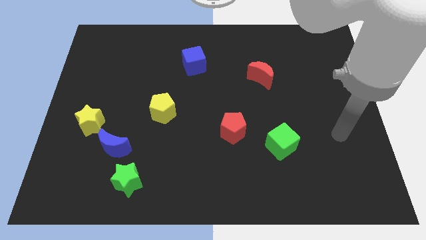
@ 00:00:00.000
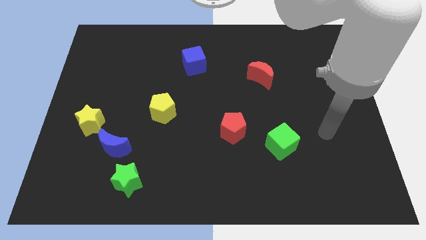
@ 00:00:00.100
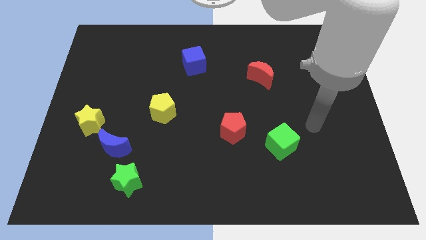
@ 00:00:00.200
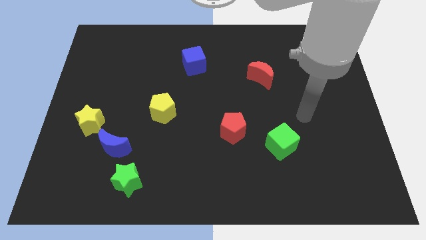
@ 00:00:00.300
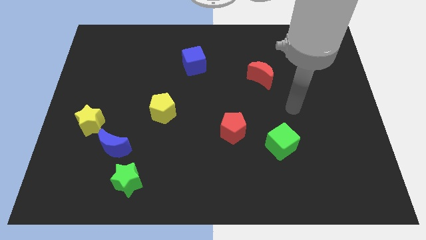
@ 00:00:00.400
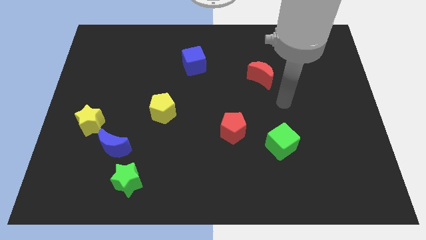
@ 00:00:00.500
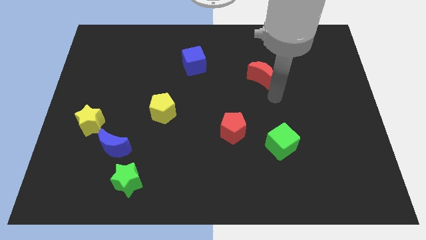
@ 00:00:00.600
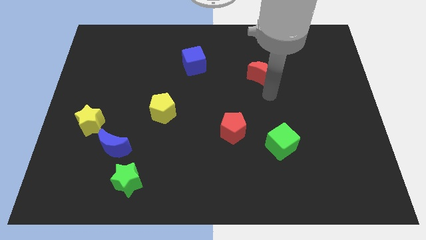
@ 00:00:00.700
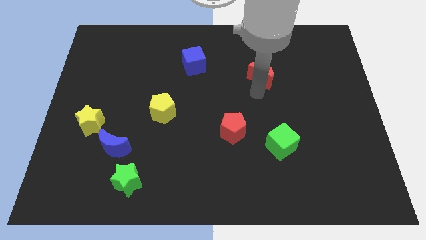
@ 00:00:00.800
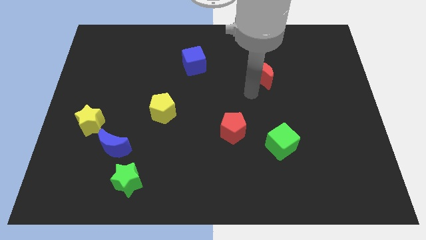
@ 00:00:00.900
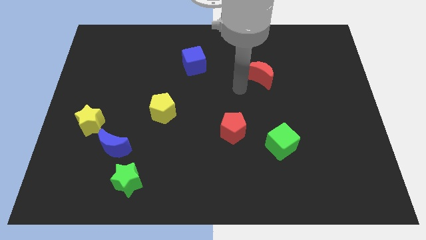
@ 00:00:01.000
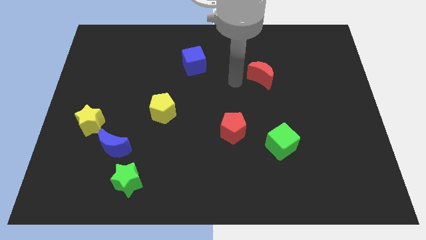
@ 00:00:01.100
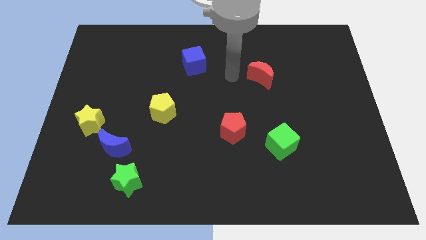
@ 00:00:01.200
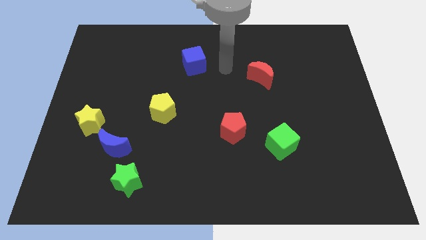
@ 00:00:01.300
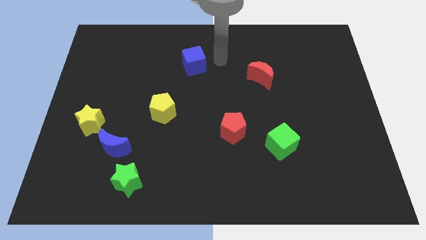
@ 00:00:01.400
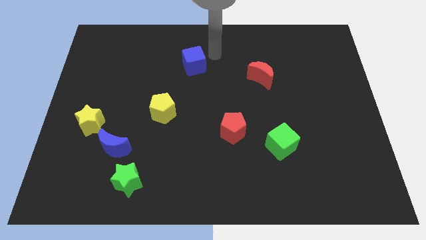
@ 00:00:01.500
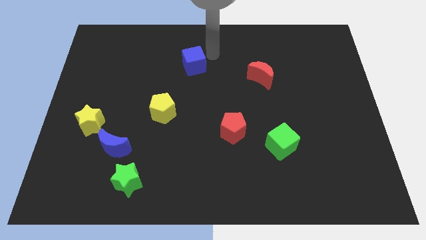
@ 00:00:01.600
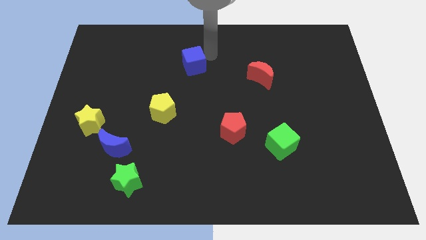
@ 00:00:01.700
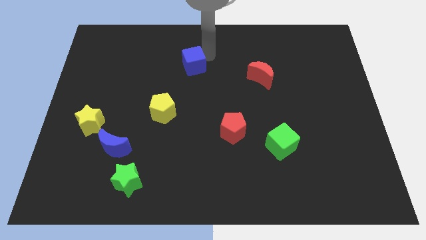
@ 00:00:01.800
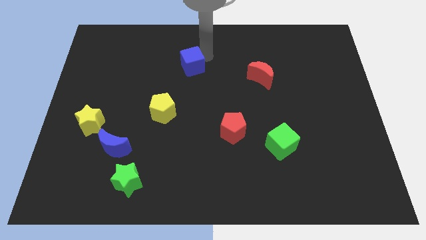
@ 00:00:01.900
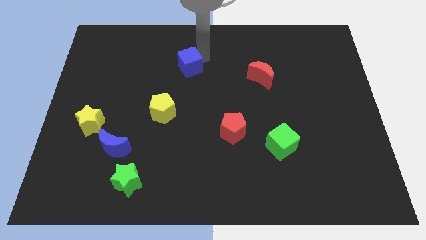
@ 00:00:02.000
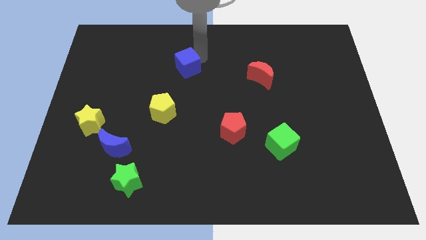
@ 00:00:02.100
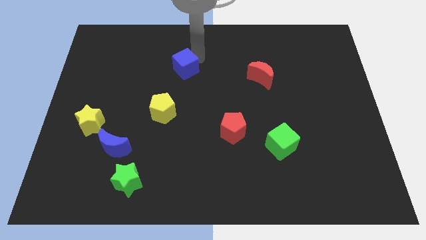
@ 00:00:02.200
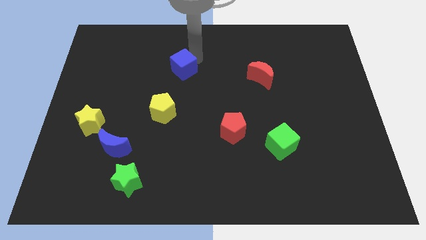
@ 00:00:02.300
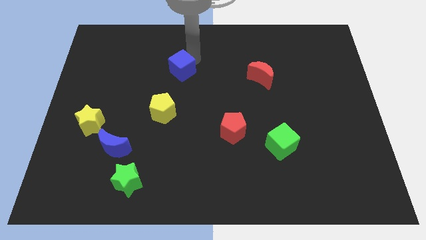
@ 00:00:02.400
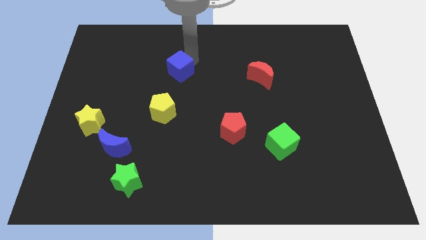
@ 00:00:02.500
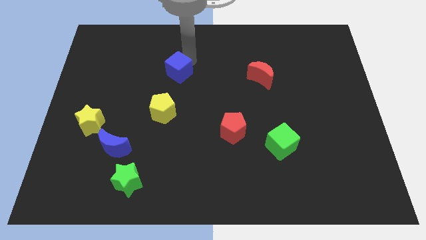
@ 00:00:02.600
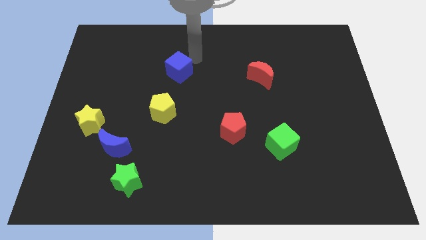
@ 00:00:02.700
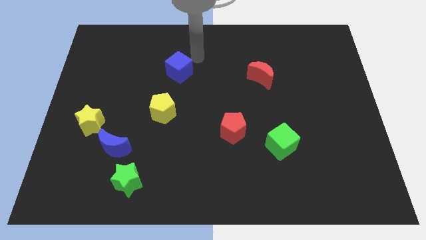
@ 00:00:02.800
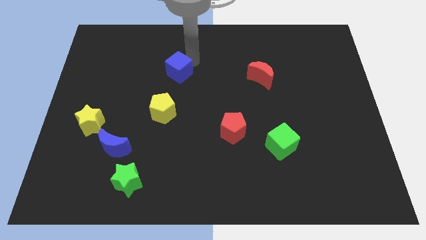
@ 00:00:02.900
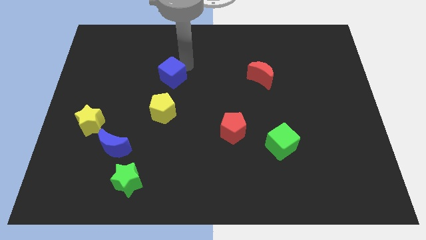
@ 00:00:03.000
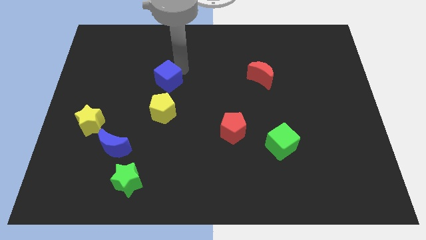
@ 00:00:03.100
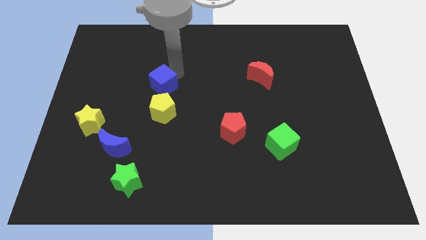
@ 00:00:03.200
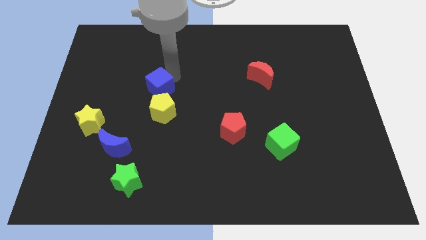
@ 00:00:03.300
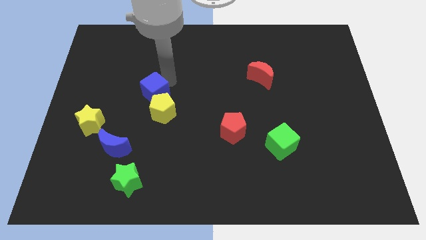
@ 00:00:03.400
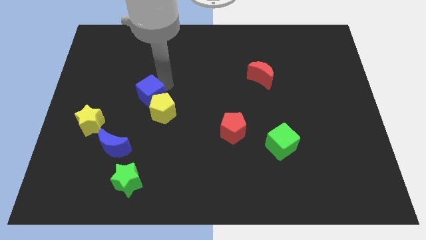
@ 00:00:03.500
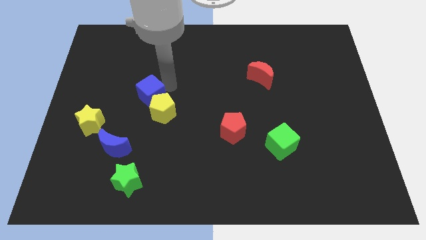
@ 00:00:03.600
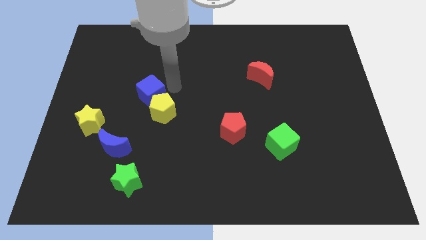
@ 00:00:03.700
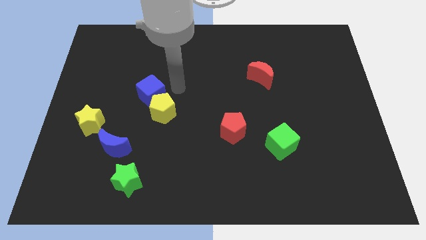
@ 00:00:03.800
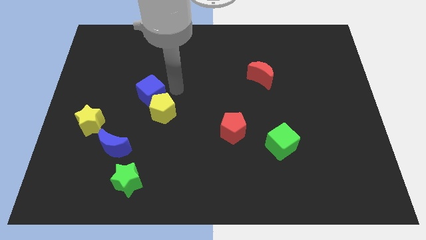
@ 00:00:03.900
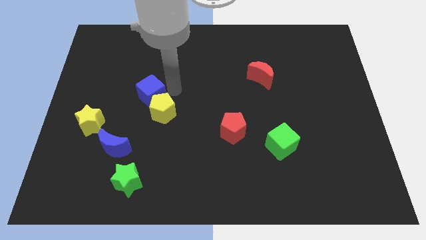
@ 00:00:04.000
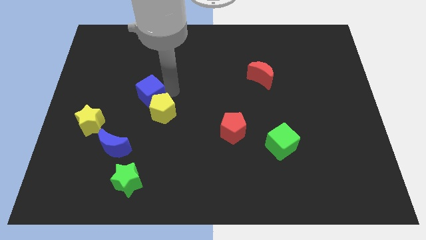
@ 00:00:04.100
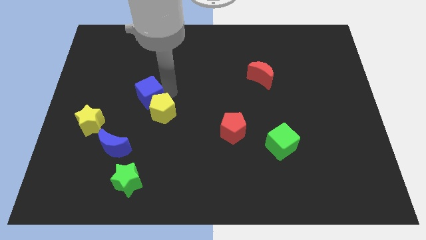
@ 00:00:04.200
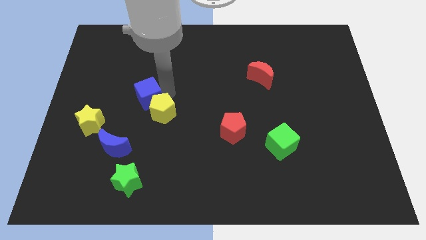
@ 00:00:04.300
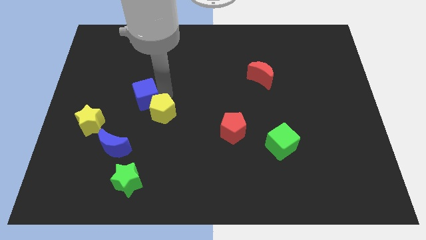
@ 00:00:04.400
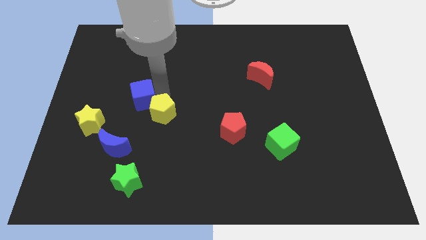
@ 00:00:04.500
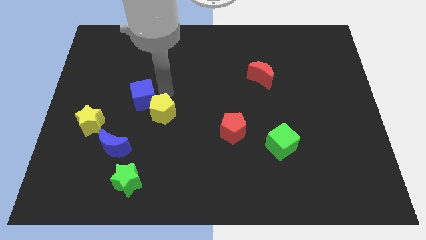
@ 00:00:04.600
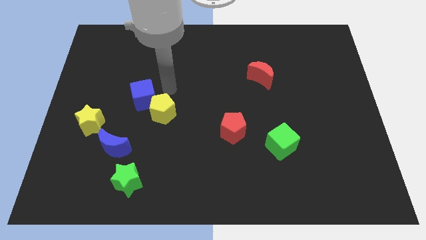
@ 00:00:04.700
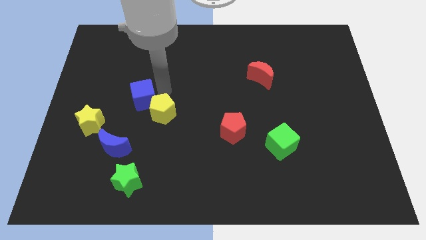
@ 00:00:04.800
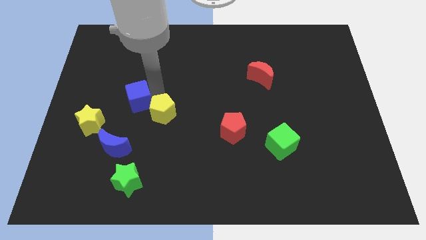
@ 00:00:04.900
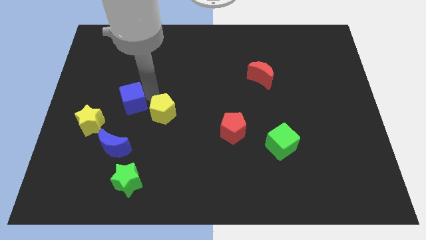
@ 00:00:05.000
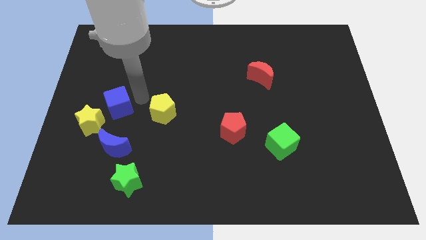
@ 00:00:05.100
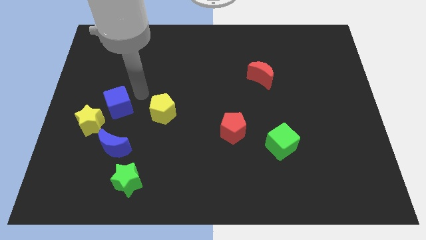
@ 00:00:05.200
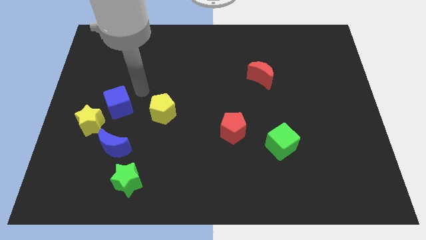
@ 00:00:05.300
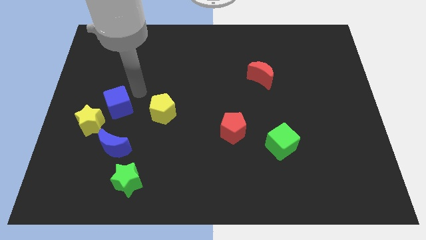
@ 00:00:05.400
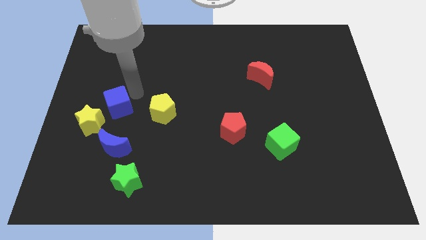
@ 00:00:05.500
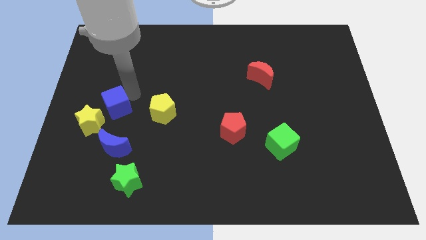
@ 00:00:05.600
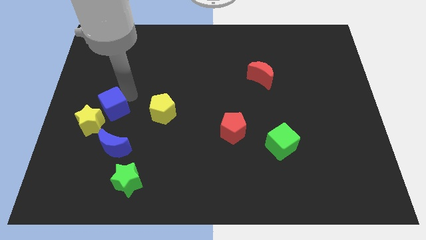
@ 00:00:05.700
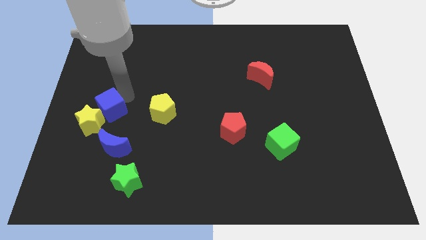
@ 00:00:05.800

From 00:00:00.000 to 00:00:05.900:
push the blue cube to the yellow star
